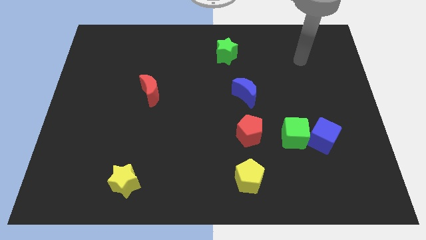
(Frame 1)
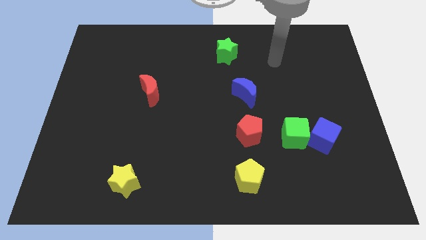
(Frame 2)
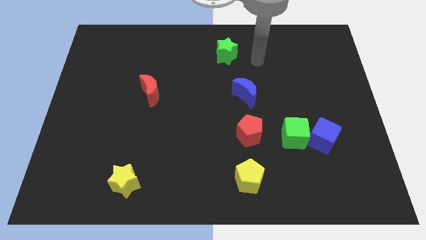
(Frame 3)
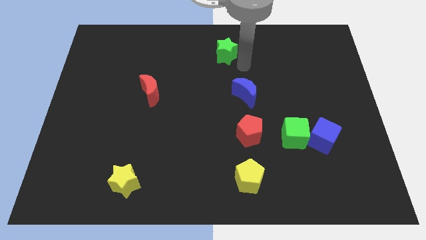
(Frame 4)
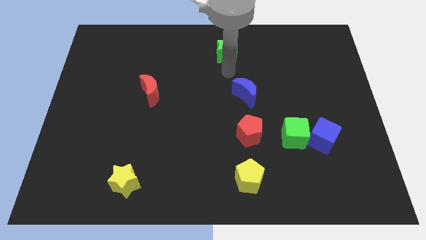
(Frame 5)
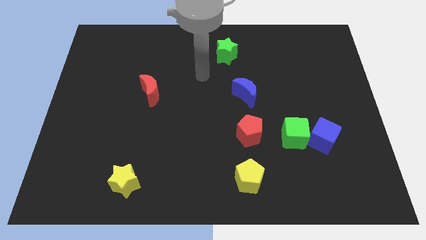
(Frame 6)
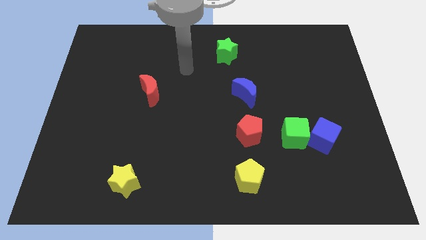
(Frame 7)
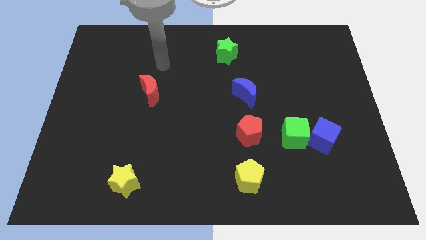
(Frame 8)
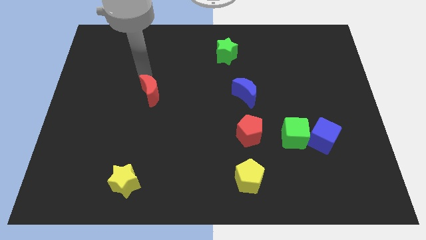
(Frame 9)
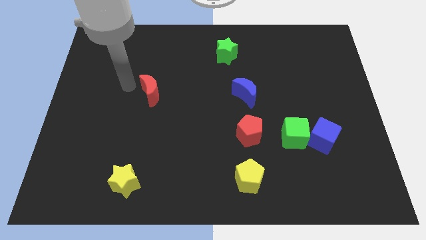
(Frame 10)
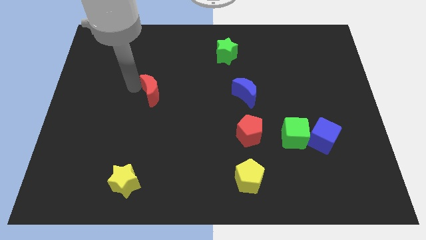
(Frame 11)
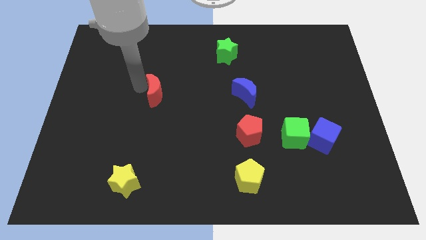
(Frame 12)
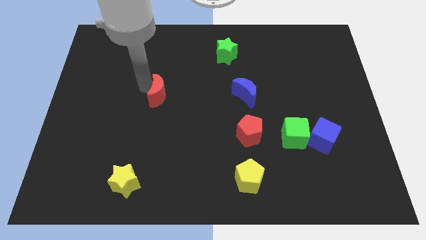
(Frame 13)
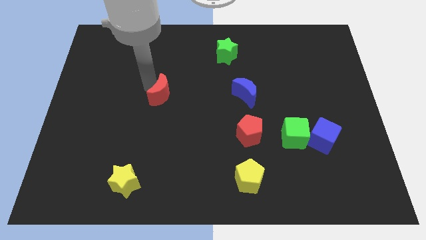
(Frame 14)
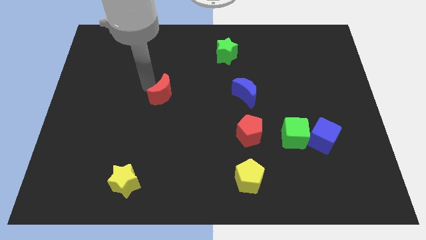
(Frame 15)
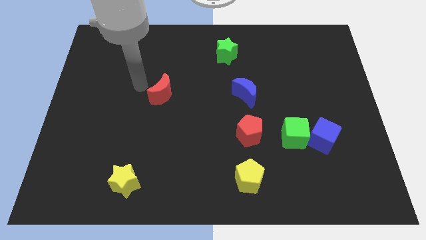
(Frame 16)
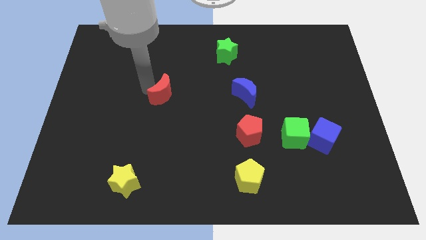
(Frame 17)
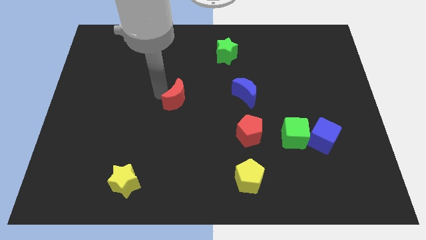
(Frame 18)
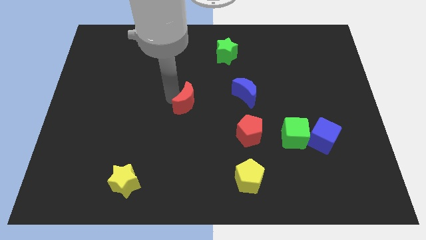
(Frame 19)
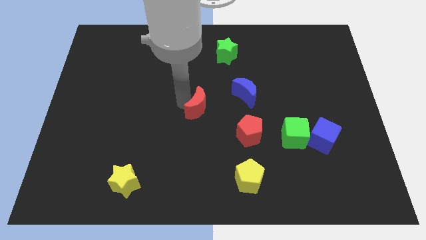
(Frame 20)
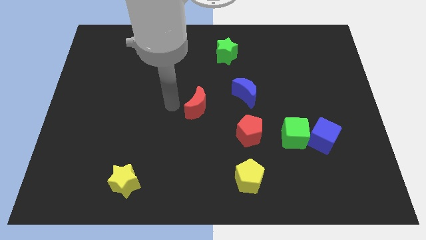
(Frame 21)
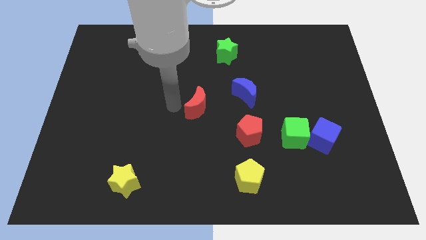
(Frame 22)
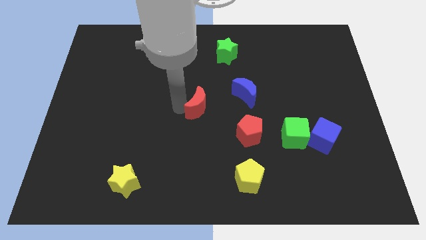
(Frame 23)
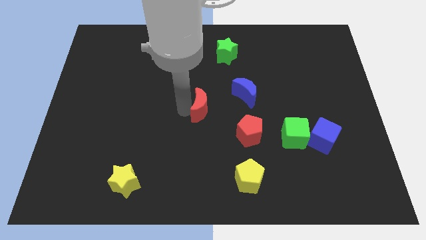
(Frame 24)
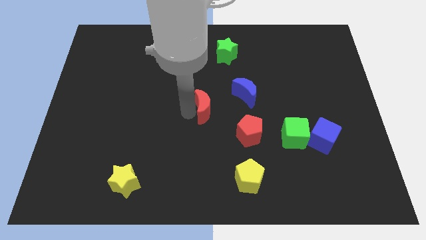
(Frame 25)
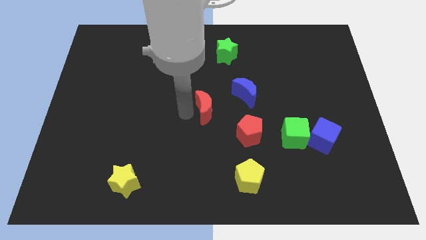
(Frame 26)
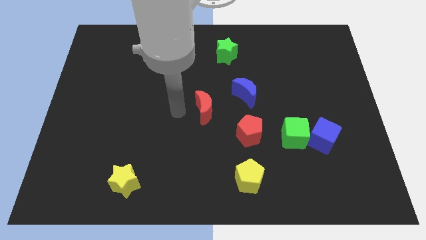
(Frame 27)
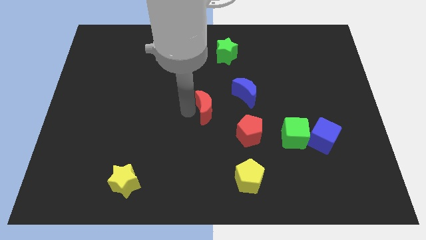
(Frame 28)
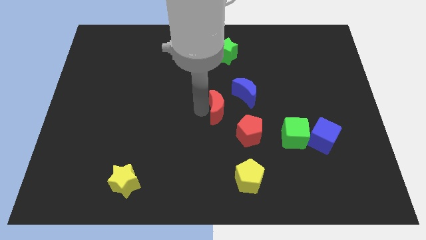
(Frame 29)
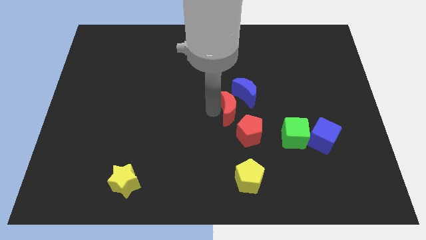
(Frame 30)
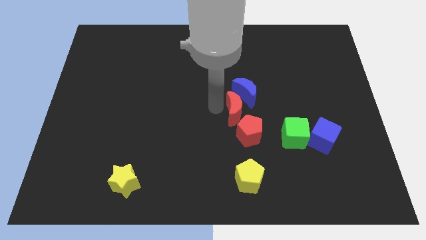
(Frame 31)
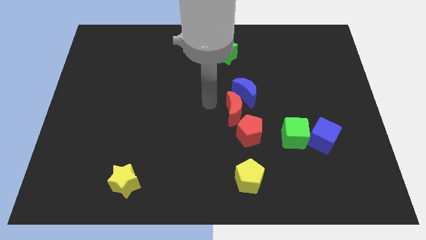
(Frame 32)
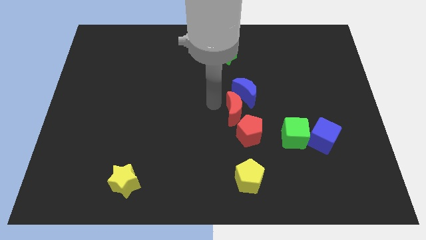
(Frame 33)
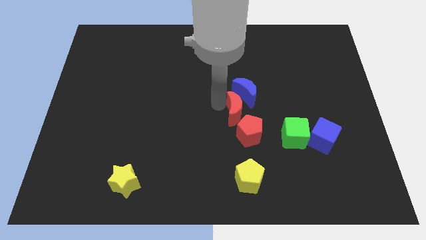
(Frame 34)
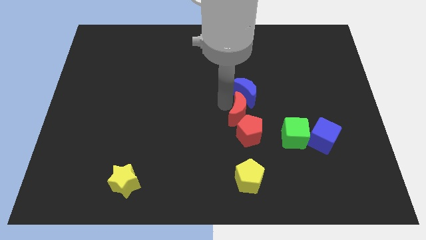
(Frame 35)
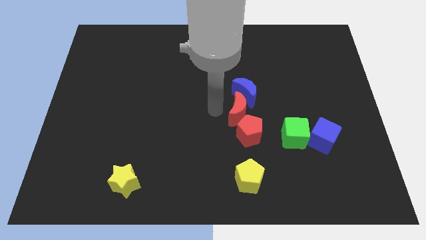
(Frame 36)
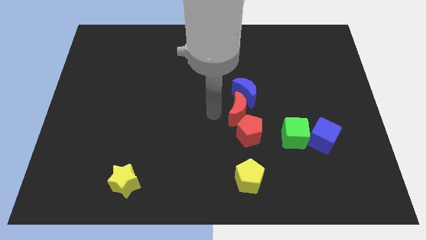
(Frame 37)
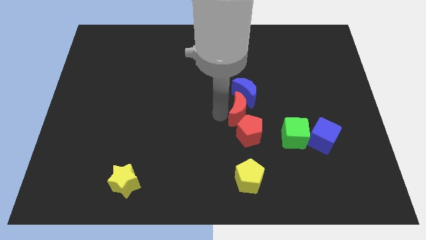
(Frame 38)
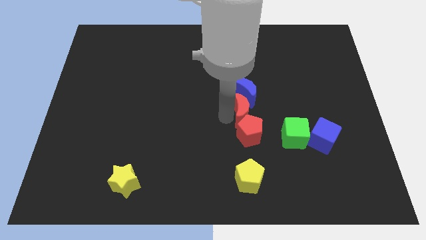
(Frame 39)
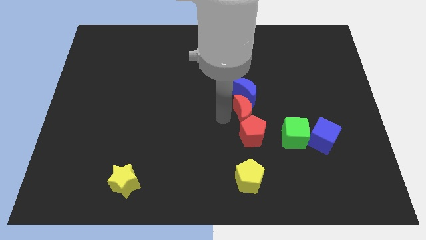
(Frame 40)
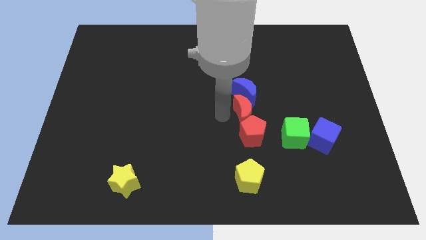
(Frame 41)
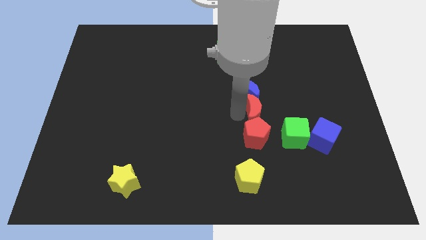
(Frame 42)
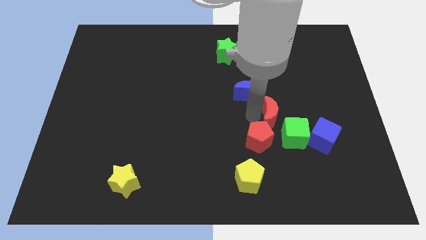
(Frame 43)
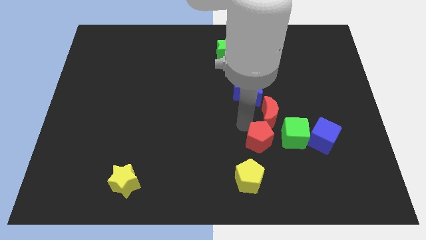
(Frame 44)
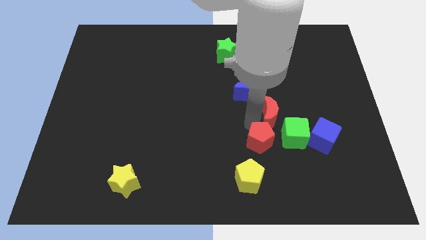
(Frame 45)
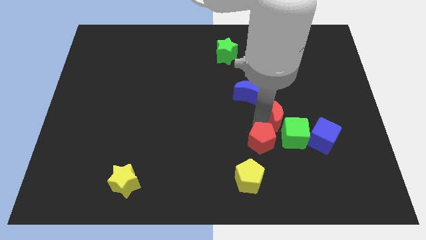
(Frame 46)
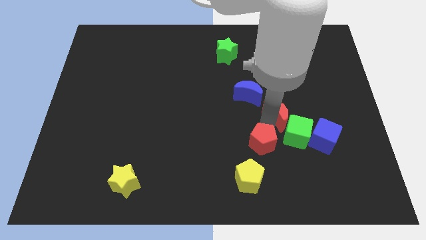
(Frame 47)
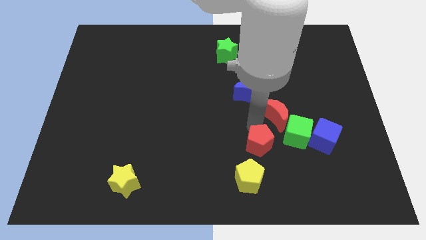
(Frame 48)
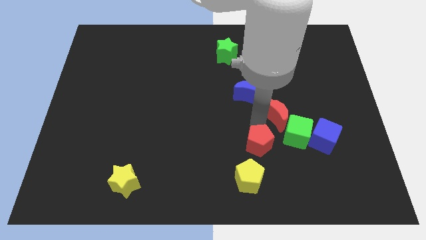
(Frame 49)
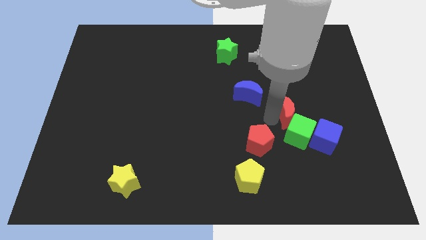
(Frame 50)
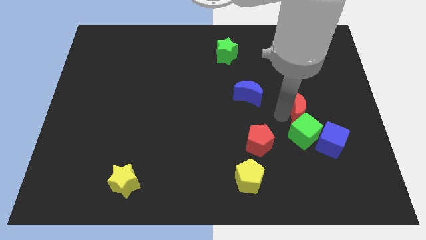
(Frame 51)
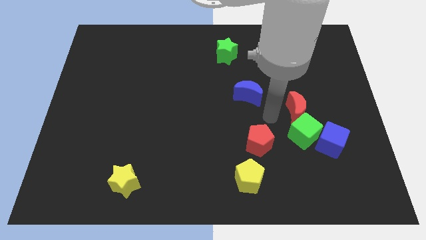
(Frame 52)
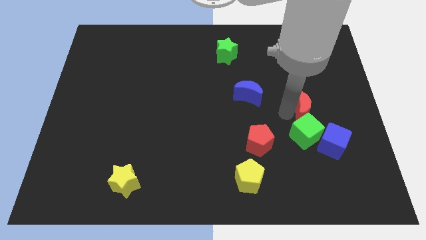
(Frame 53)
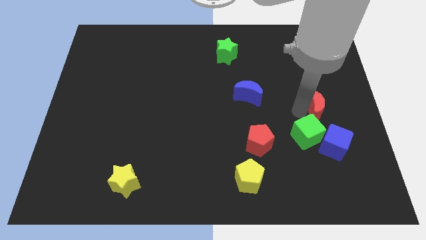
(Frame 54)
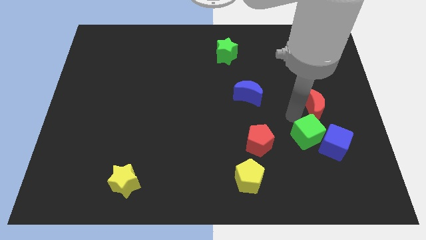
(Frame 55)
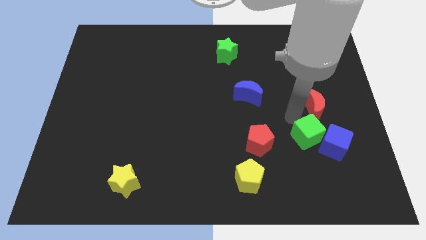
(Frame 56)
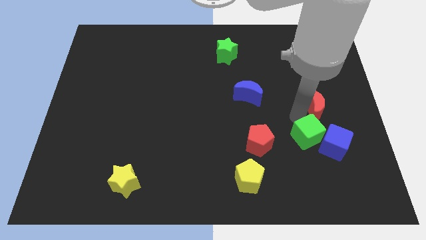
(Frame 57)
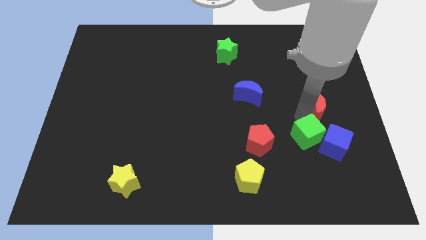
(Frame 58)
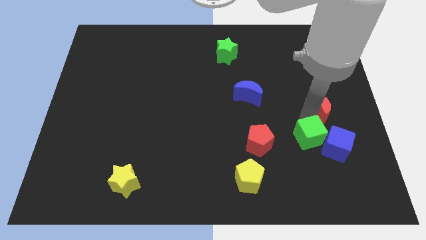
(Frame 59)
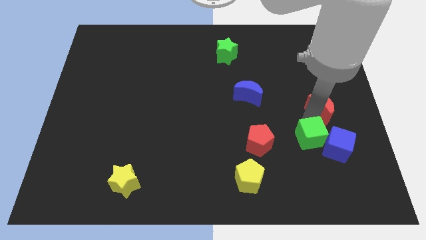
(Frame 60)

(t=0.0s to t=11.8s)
push the red moon to the center right
